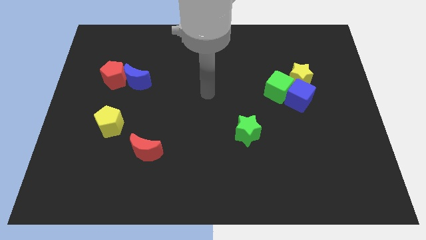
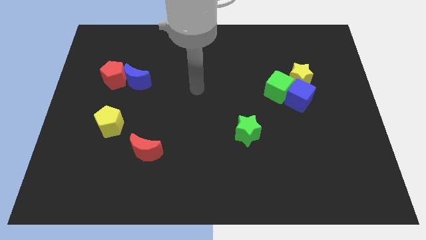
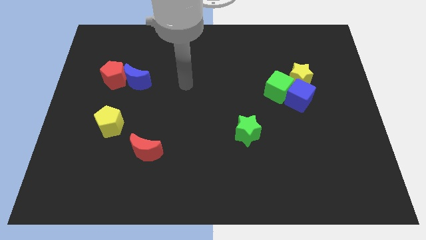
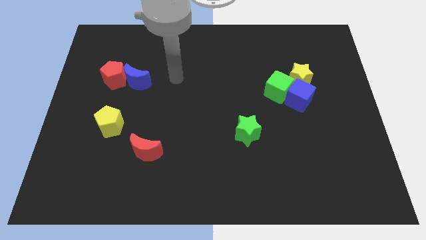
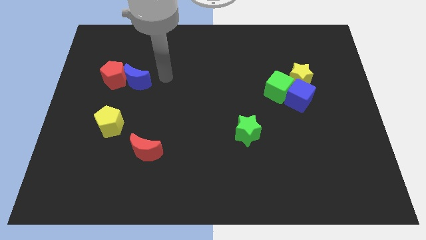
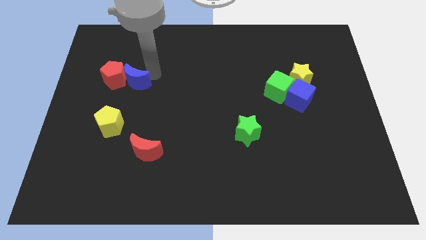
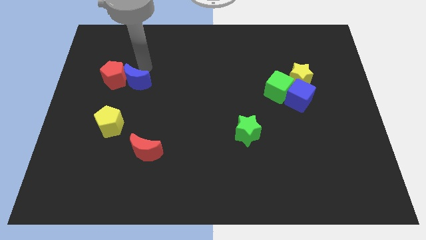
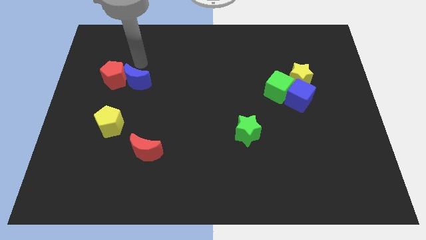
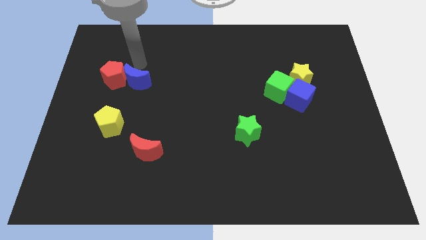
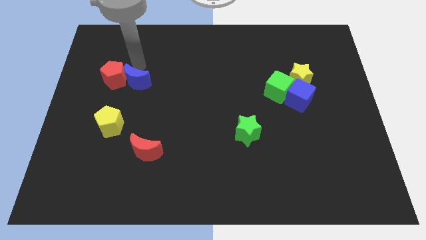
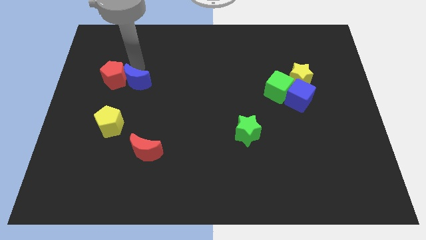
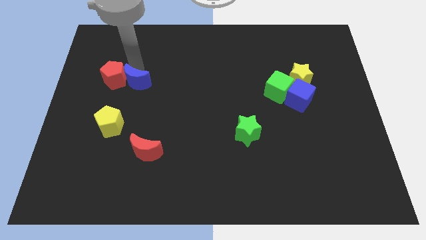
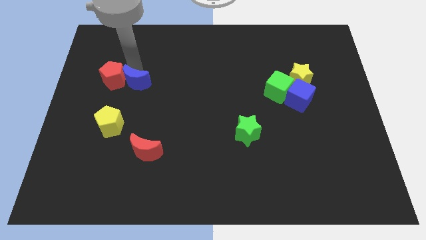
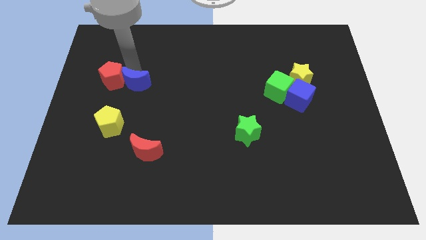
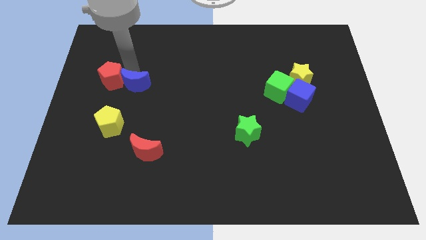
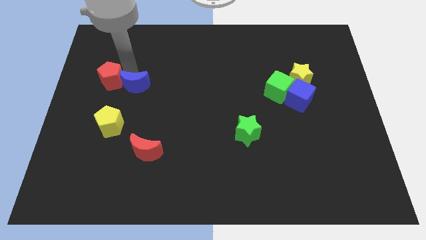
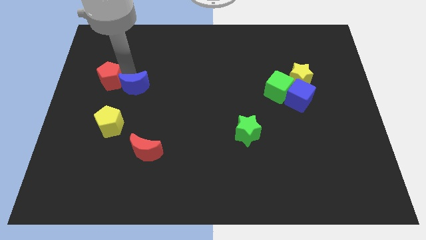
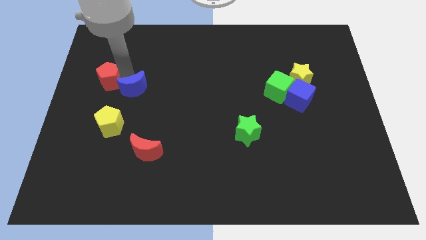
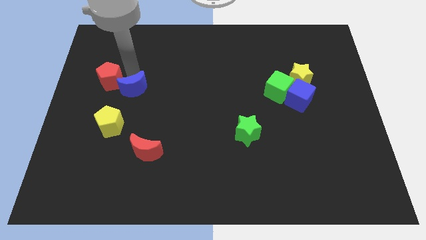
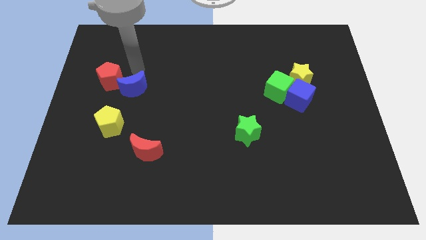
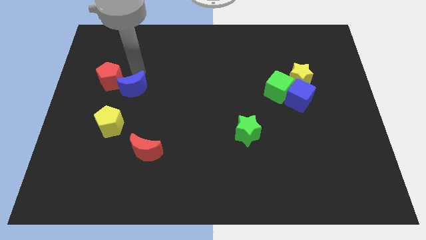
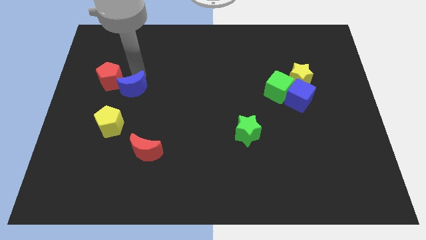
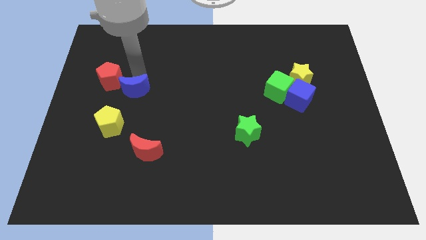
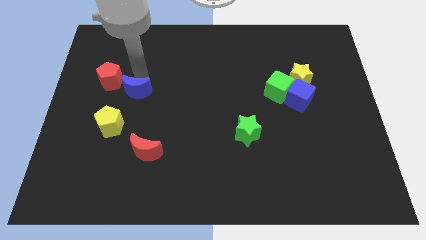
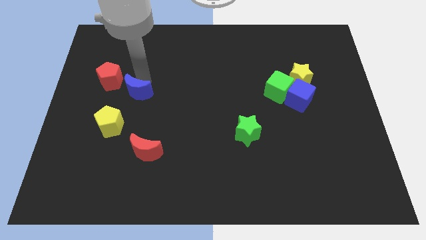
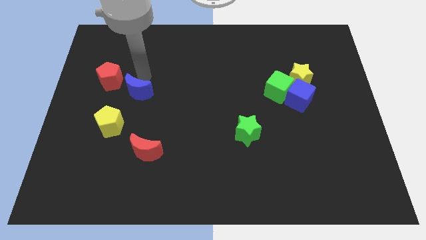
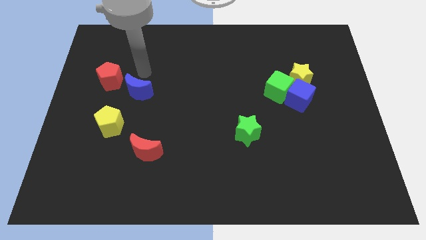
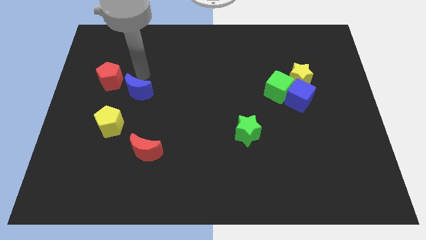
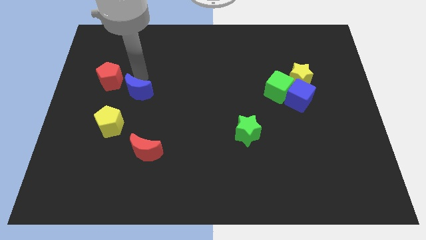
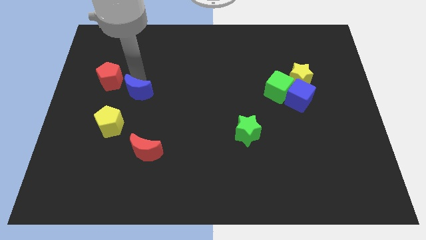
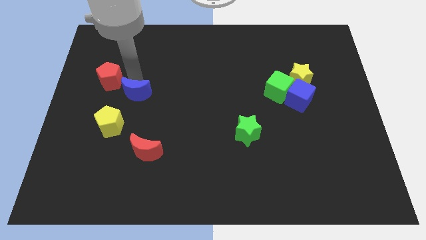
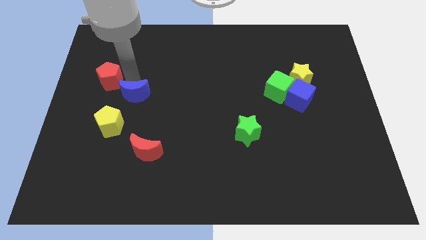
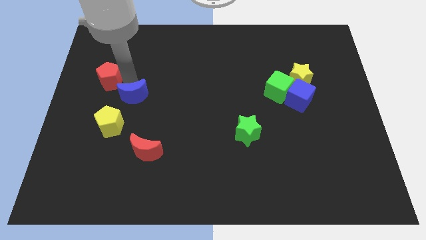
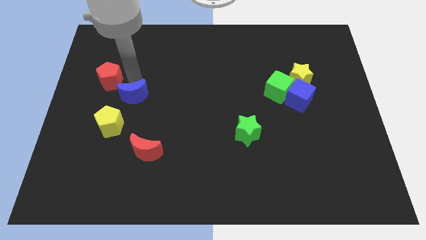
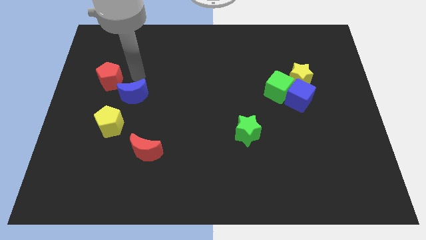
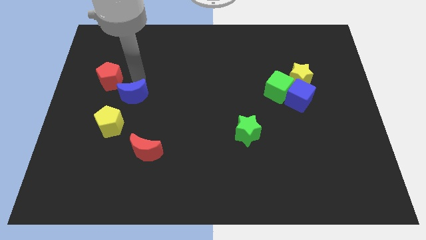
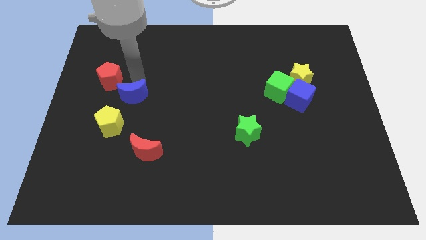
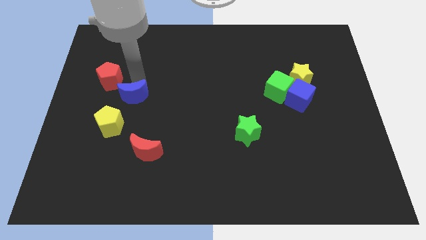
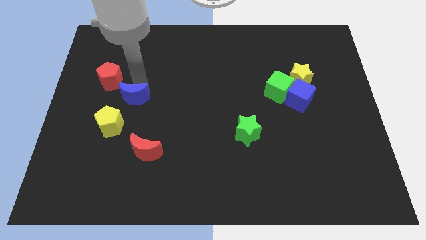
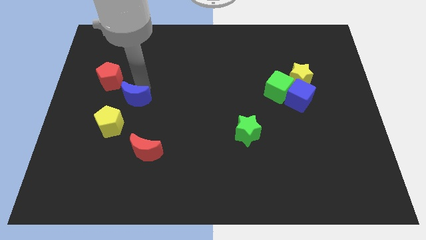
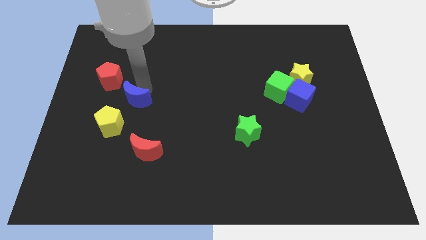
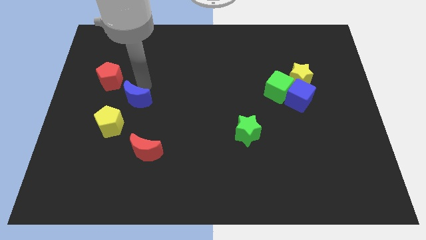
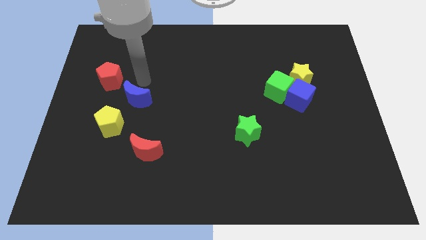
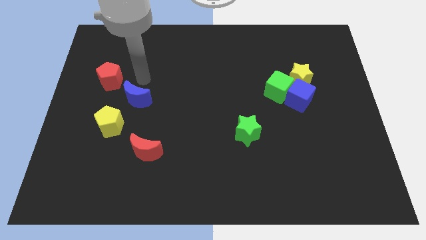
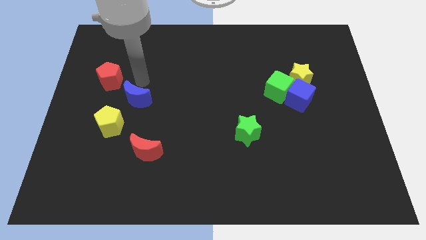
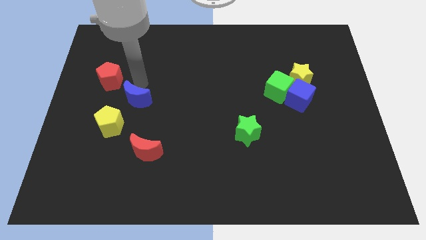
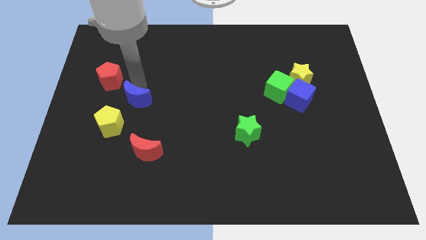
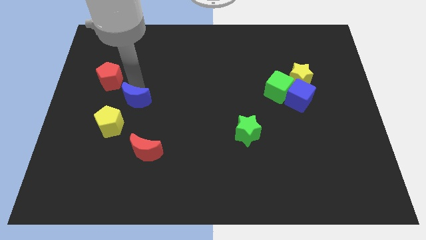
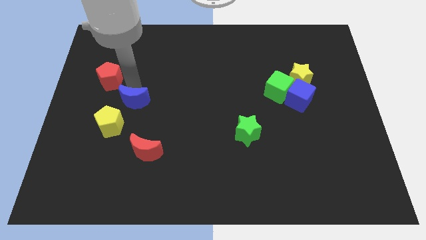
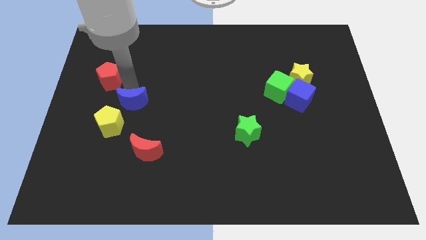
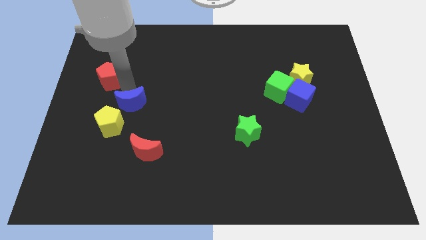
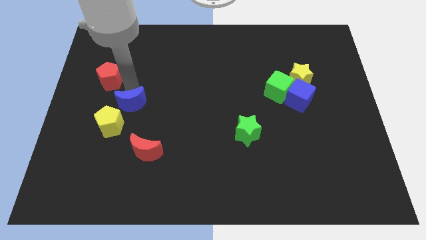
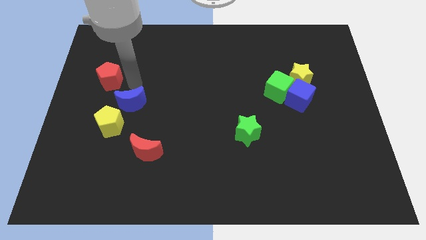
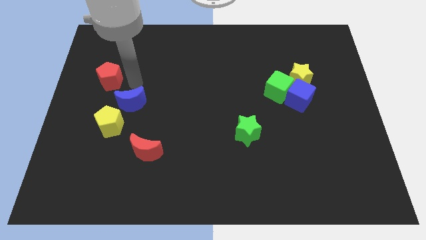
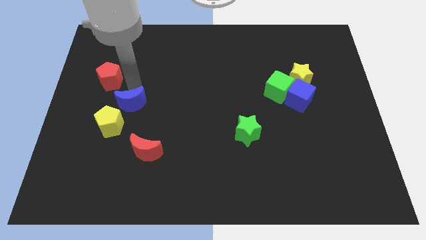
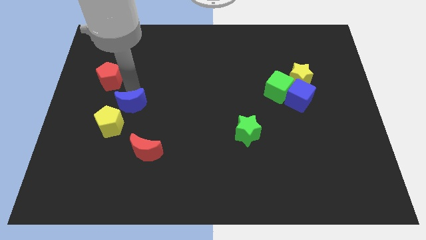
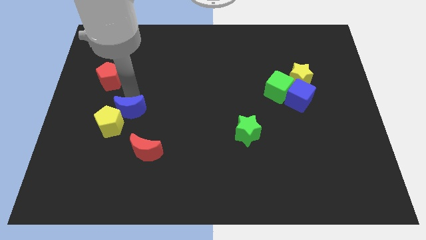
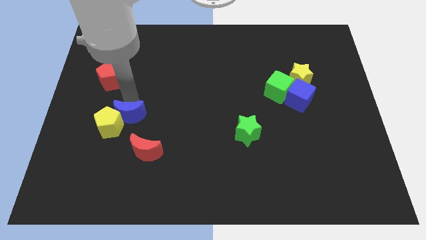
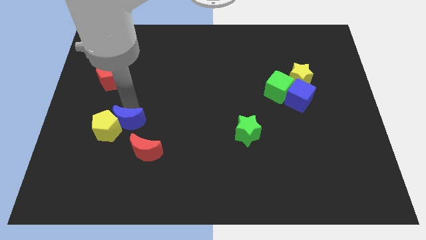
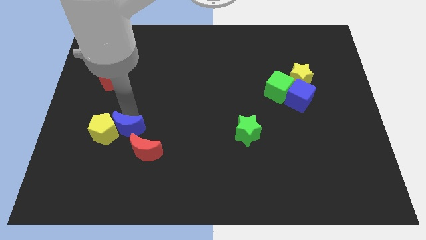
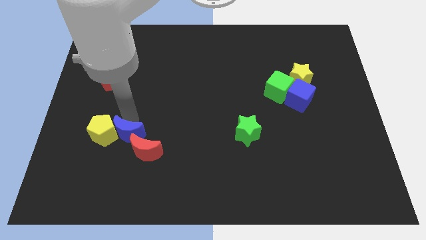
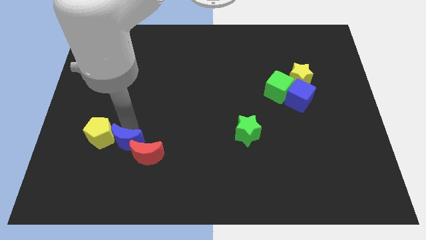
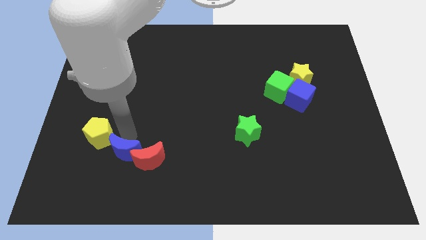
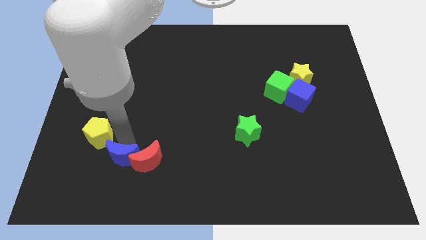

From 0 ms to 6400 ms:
put the blue moon diagonally down and to the left of the red moon

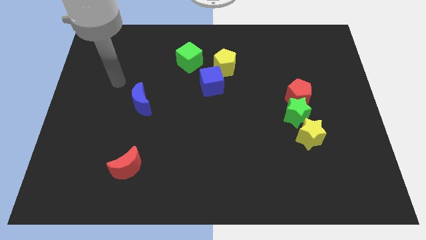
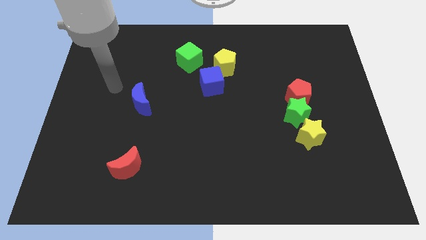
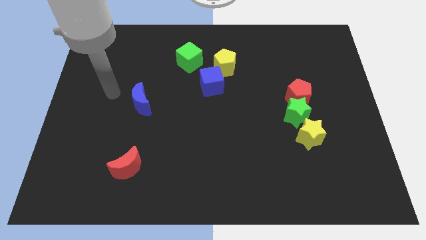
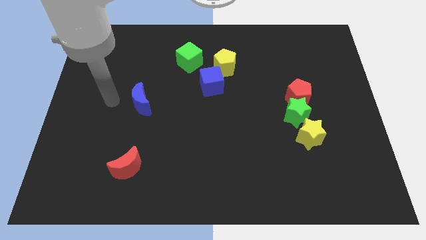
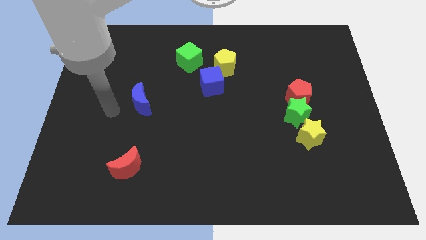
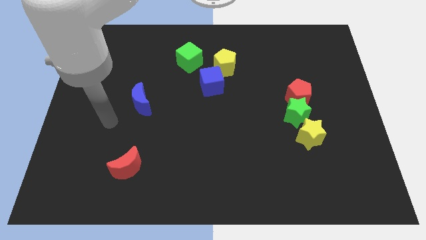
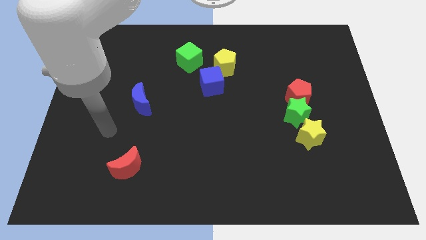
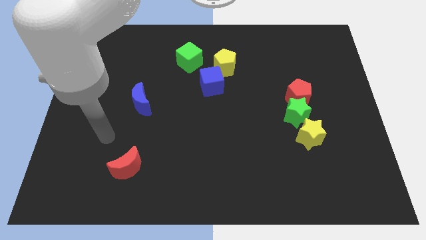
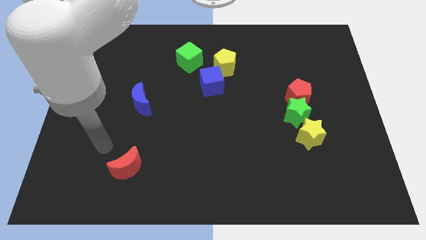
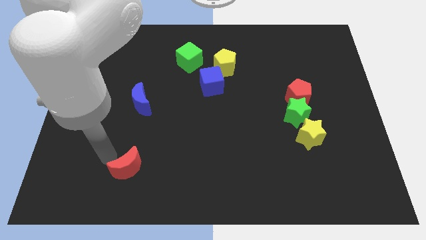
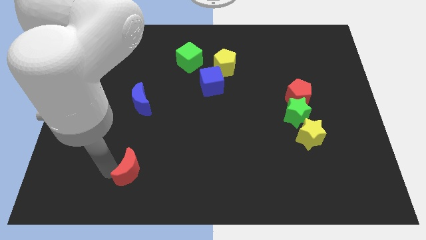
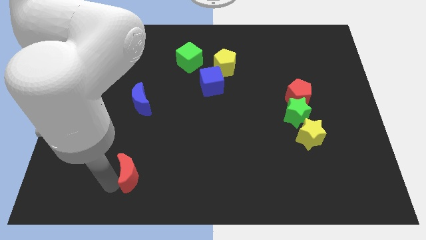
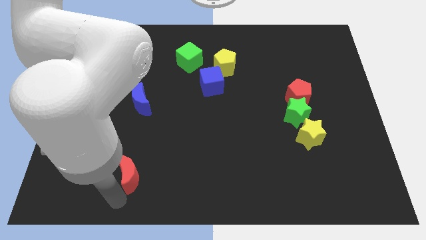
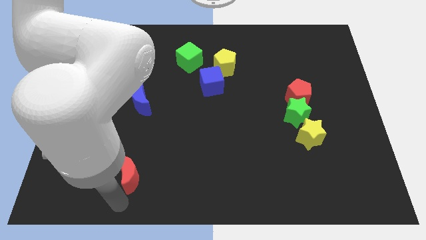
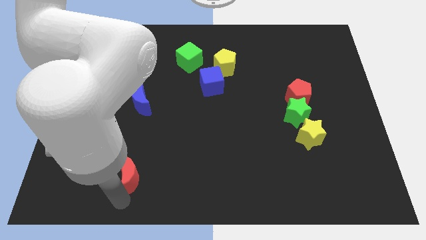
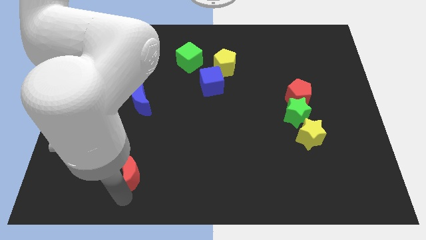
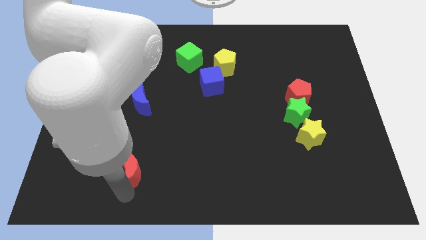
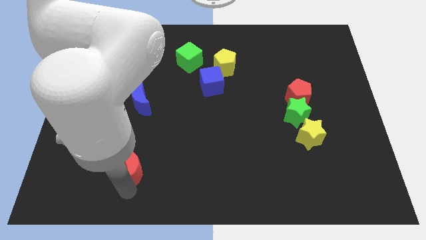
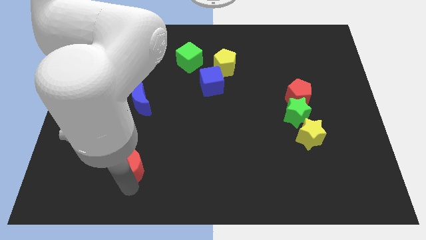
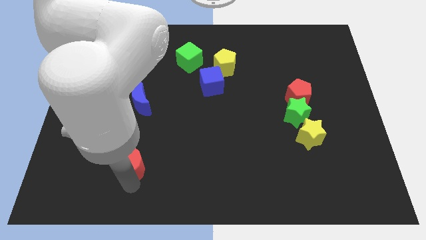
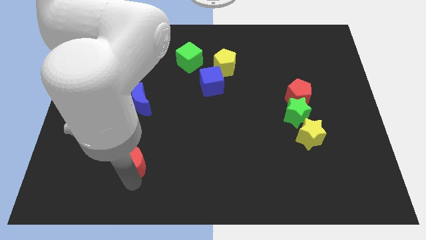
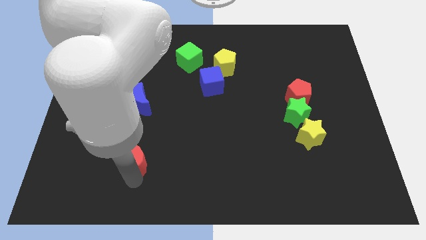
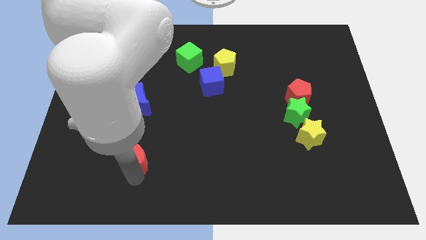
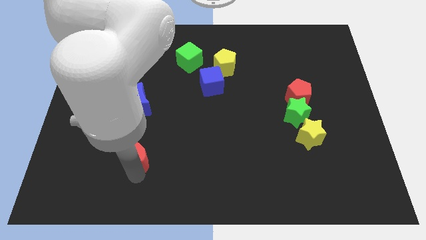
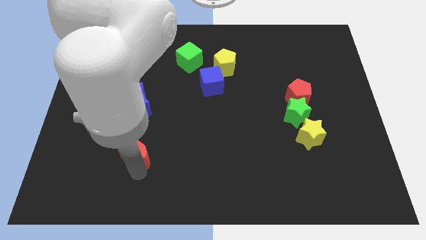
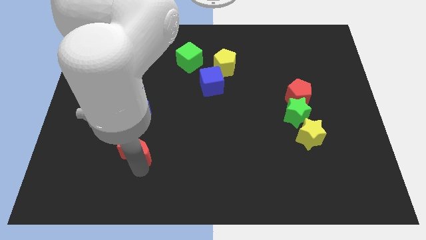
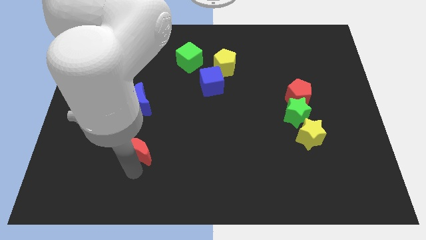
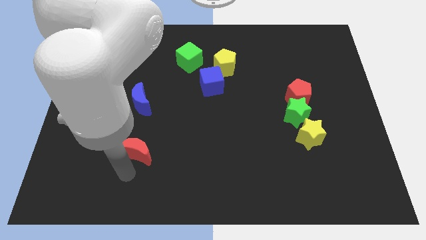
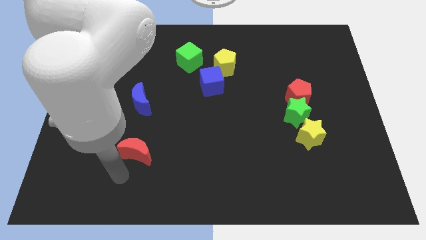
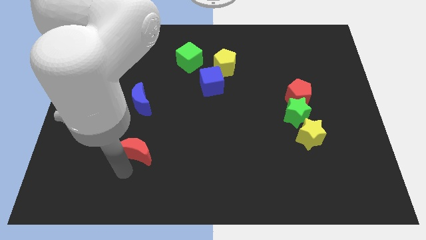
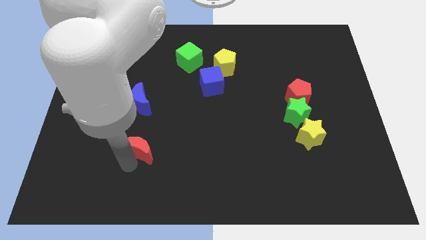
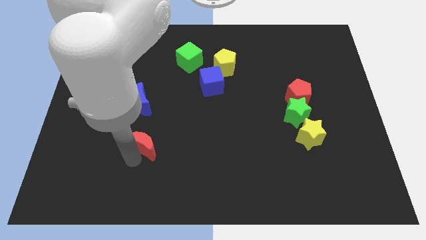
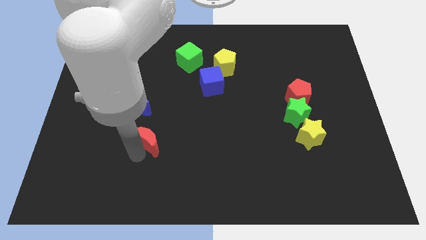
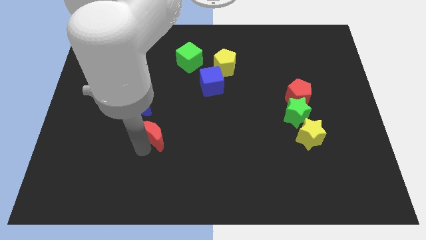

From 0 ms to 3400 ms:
push the red moon diagonally down and to the right of the blue moon
